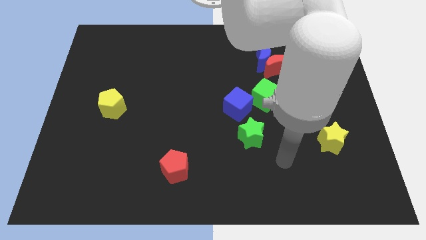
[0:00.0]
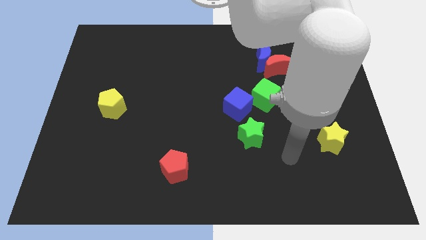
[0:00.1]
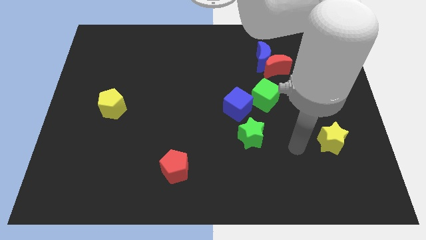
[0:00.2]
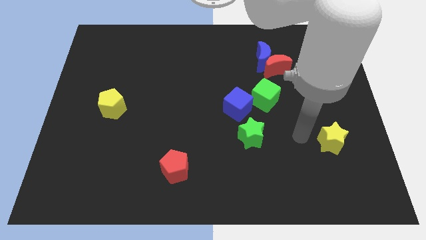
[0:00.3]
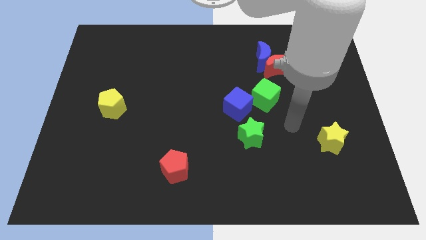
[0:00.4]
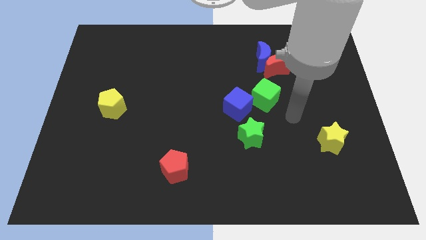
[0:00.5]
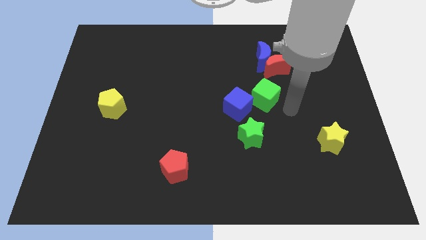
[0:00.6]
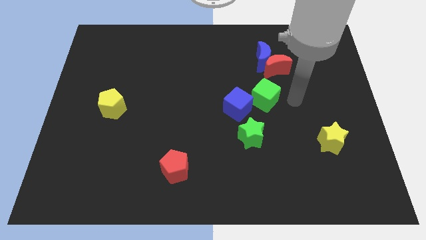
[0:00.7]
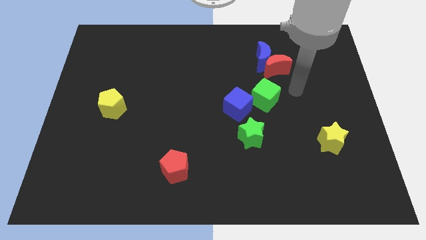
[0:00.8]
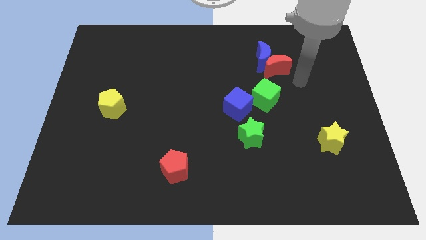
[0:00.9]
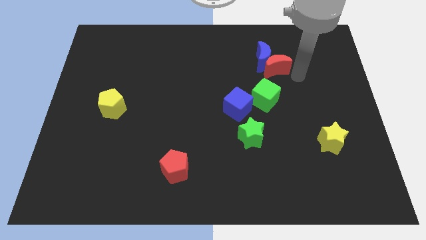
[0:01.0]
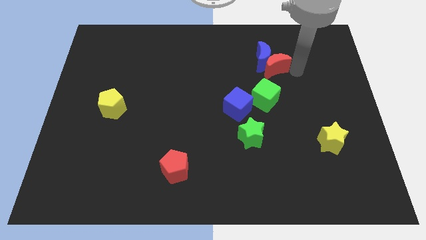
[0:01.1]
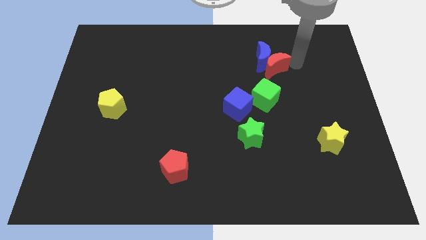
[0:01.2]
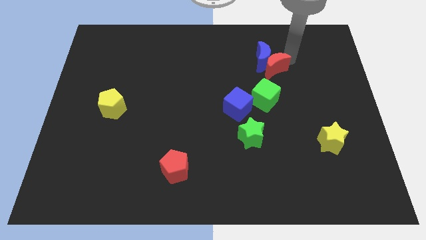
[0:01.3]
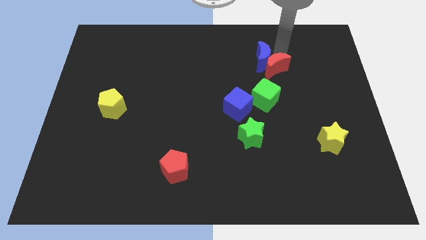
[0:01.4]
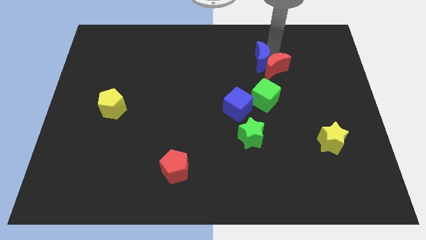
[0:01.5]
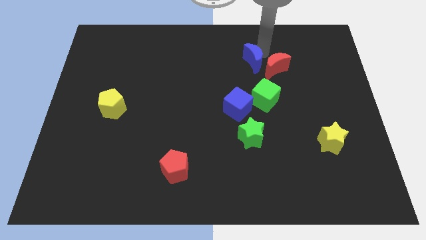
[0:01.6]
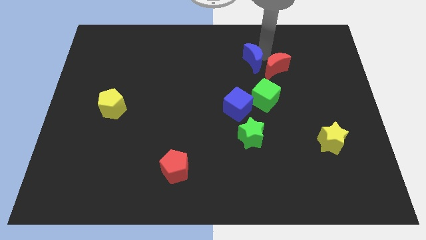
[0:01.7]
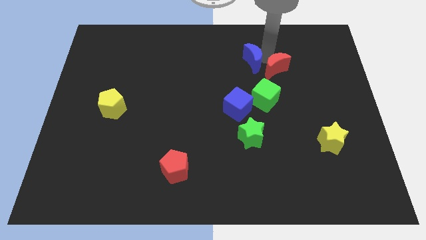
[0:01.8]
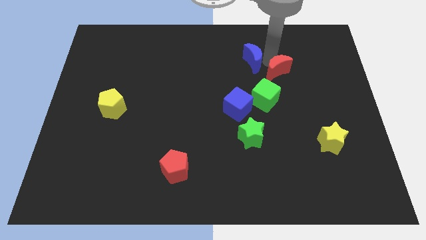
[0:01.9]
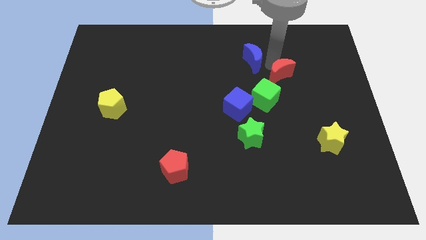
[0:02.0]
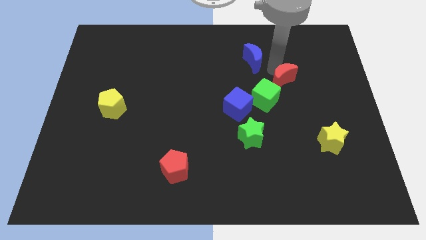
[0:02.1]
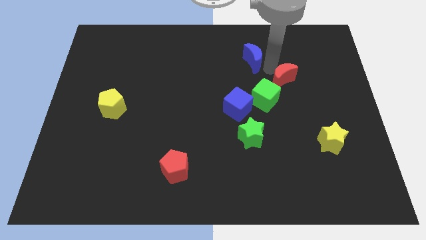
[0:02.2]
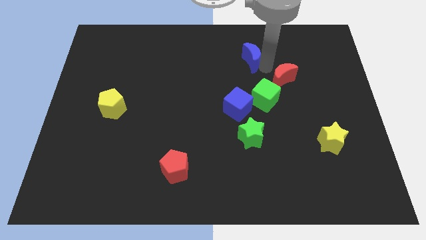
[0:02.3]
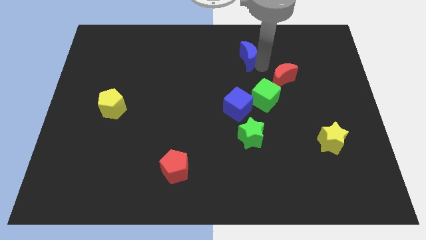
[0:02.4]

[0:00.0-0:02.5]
separate the red moon from the blue moon

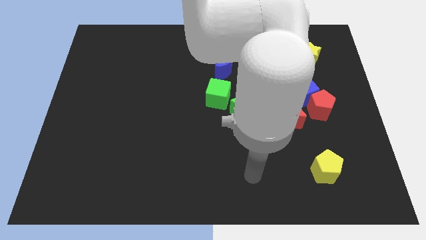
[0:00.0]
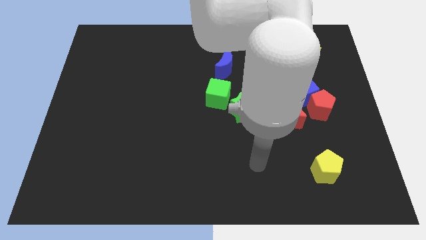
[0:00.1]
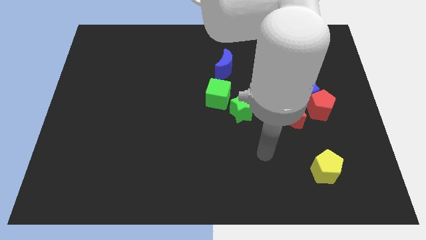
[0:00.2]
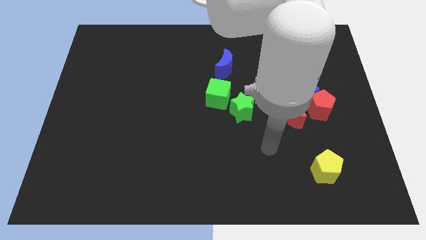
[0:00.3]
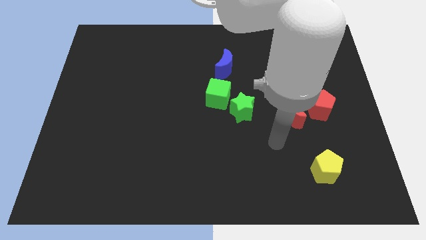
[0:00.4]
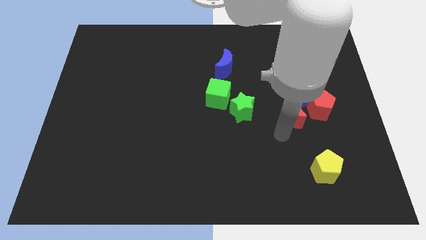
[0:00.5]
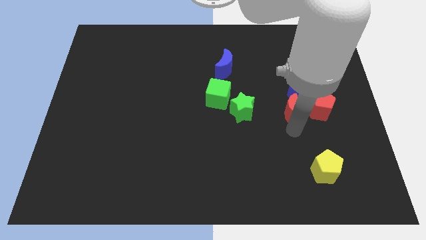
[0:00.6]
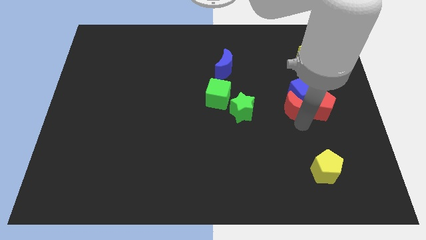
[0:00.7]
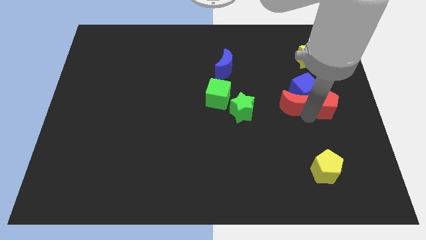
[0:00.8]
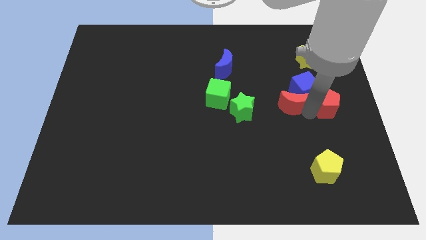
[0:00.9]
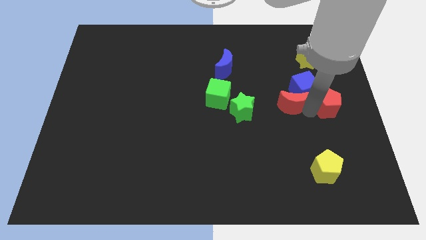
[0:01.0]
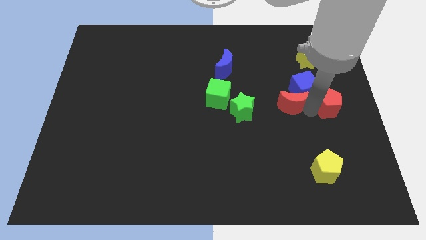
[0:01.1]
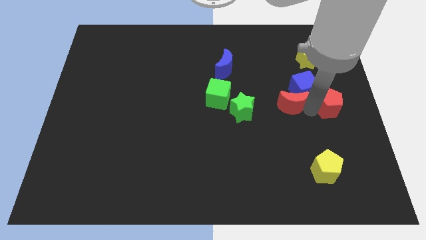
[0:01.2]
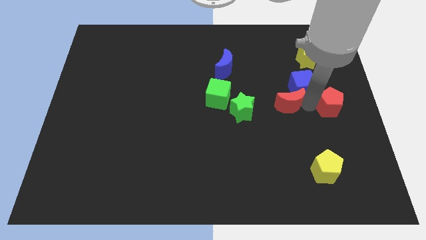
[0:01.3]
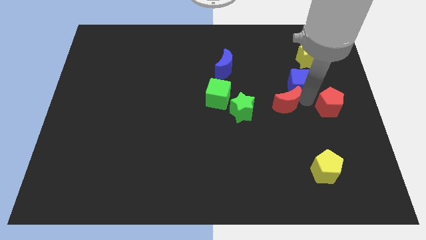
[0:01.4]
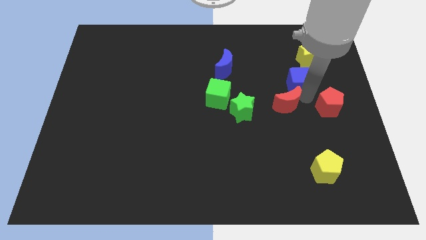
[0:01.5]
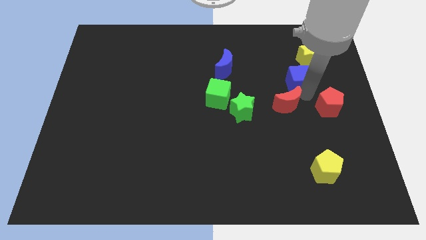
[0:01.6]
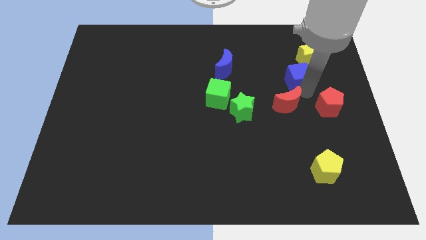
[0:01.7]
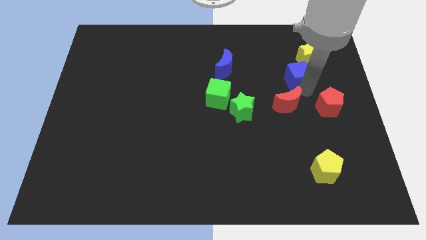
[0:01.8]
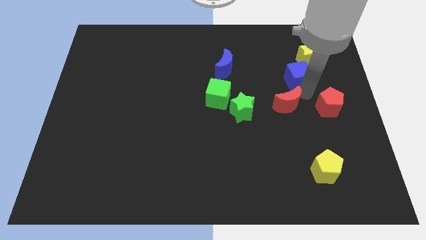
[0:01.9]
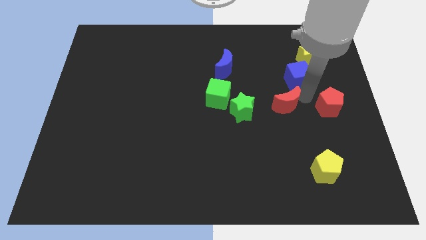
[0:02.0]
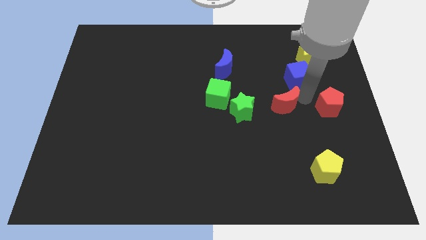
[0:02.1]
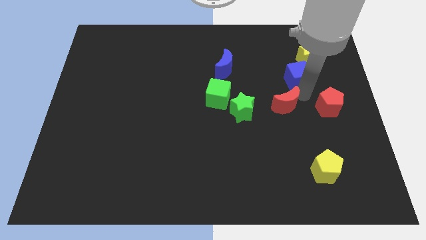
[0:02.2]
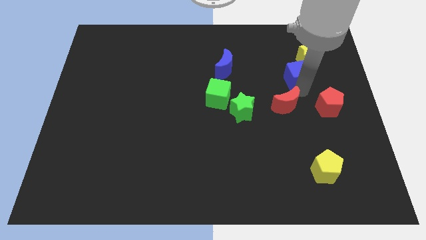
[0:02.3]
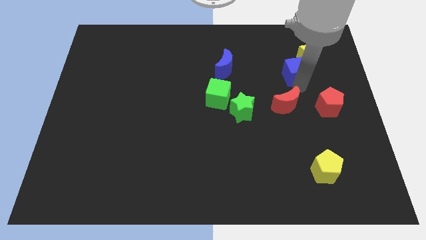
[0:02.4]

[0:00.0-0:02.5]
separate the blue cube from the red pentagon and red moon

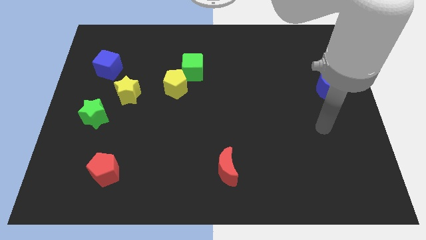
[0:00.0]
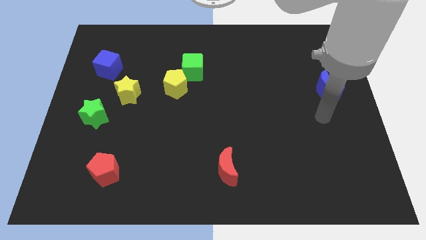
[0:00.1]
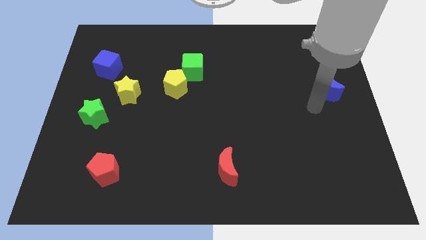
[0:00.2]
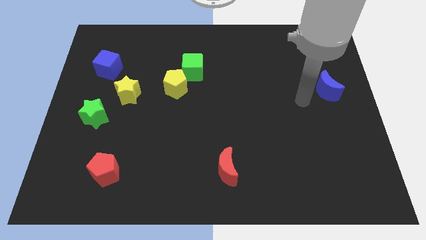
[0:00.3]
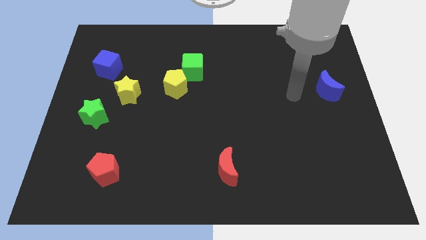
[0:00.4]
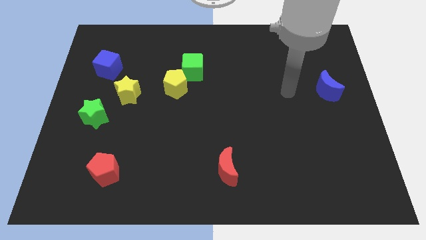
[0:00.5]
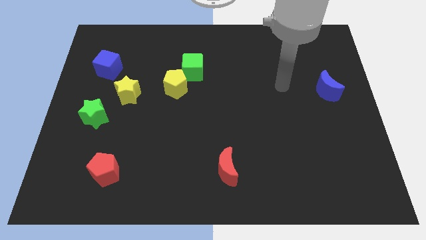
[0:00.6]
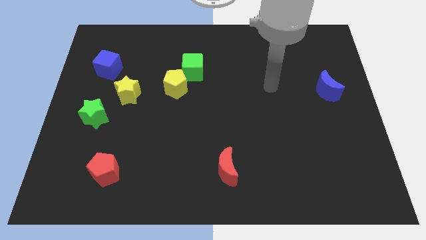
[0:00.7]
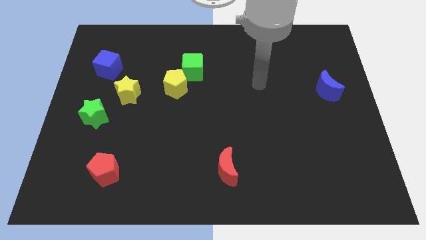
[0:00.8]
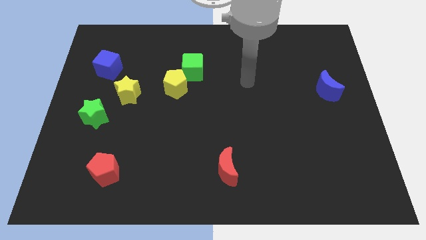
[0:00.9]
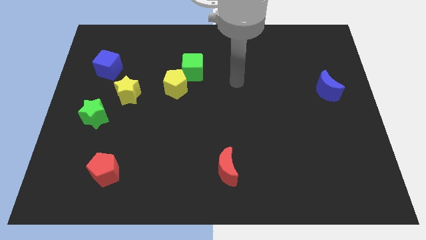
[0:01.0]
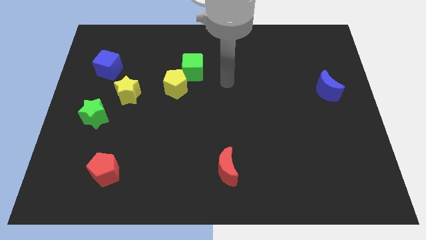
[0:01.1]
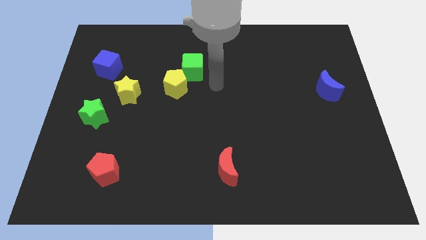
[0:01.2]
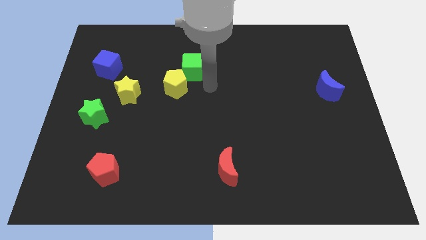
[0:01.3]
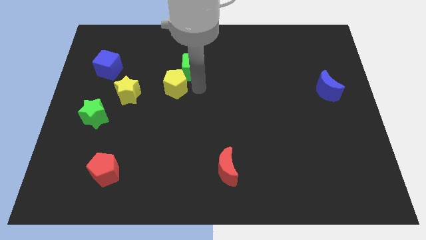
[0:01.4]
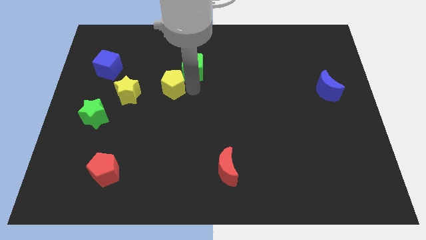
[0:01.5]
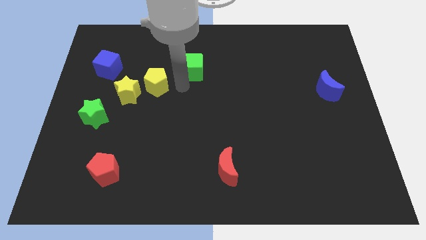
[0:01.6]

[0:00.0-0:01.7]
pull the green cube apart from the yellow pentagon

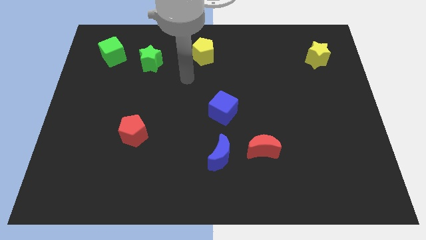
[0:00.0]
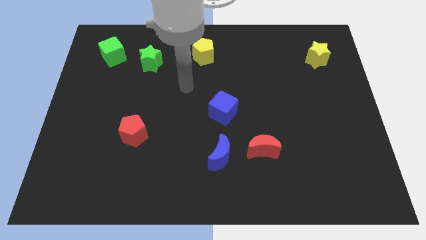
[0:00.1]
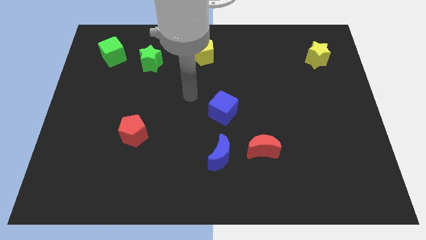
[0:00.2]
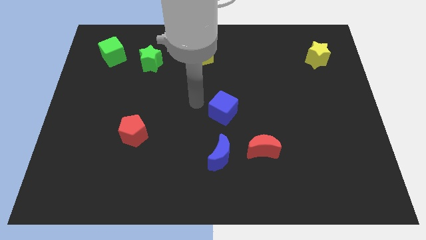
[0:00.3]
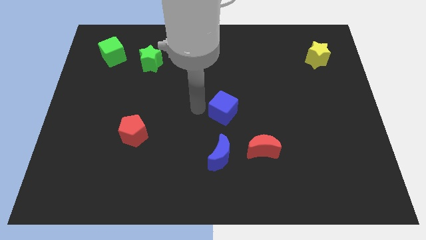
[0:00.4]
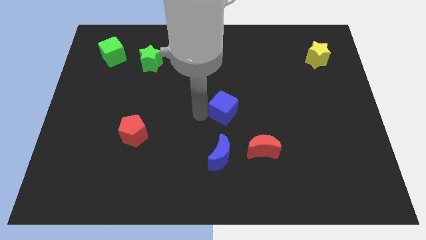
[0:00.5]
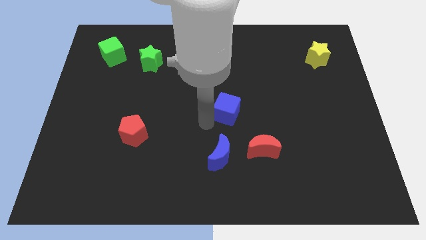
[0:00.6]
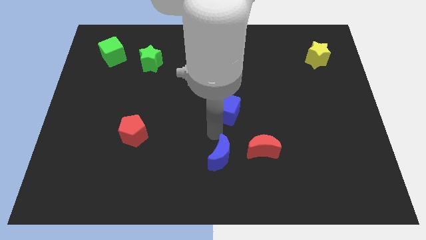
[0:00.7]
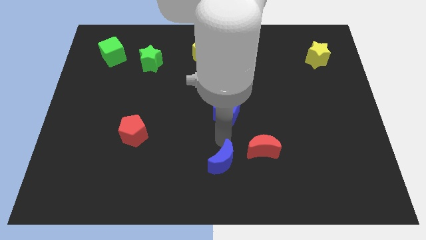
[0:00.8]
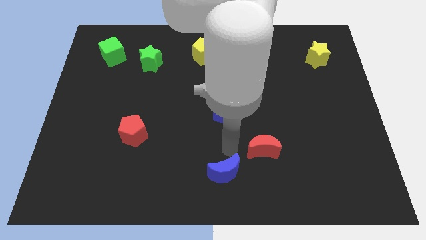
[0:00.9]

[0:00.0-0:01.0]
pull the red moon apart from the blue moon

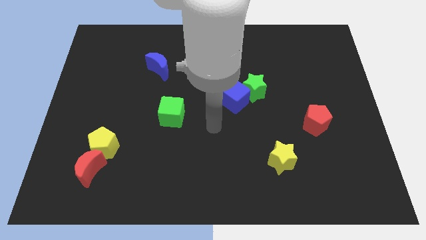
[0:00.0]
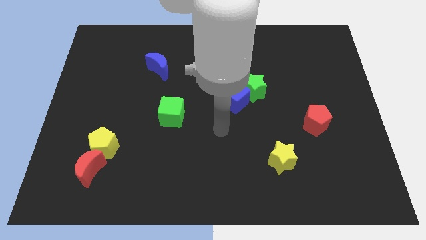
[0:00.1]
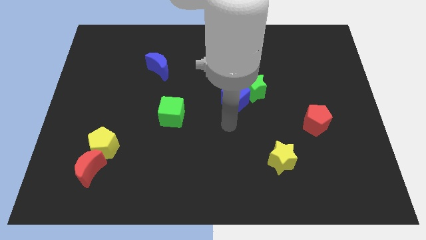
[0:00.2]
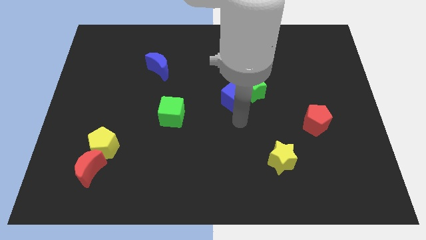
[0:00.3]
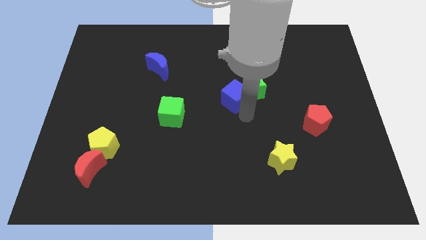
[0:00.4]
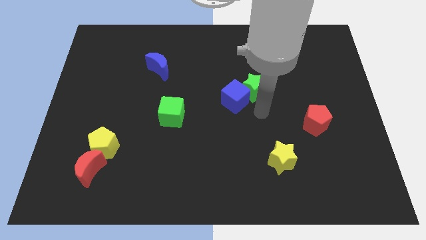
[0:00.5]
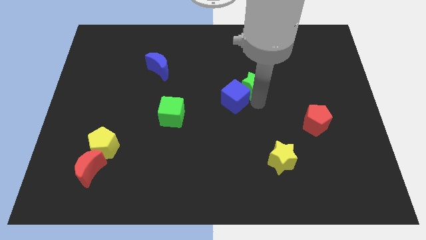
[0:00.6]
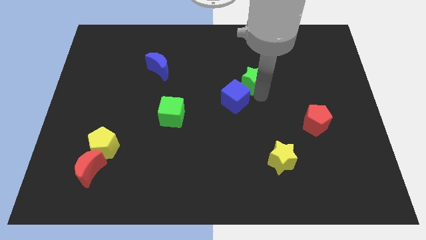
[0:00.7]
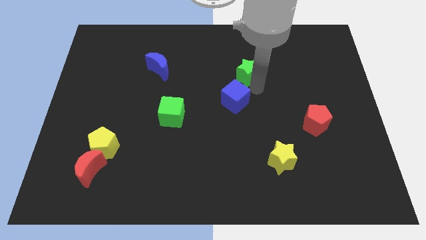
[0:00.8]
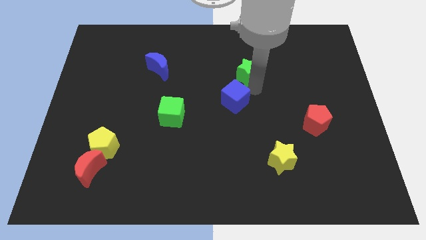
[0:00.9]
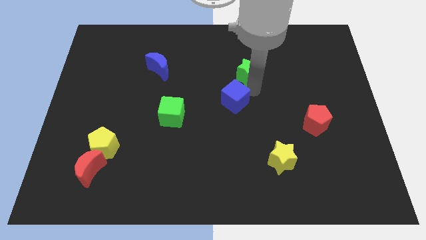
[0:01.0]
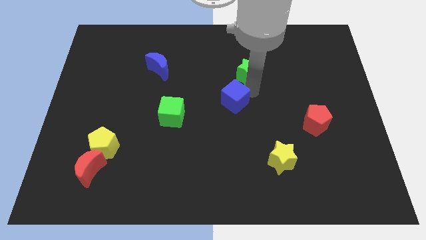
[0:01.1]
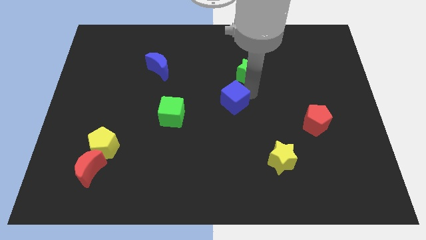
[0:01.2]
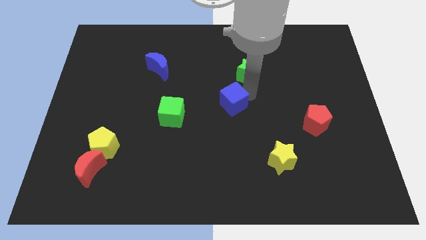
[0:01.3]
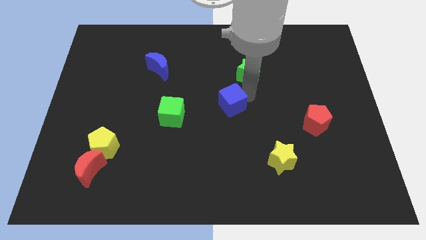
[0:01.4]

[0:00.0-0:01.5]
move the blue cube away from the green star
